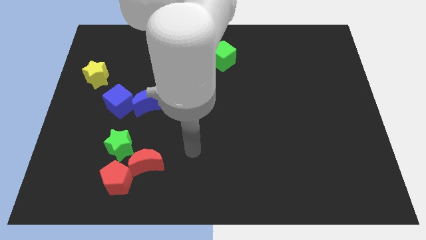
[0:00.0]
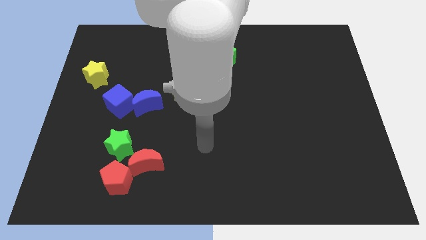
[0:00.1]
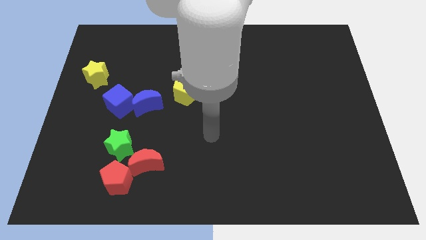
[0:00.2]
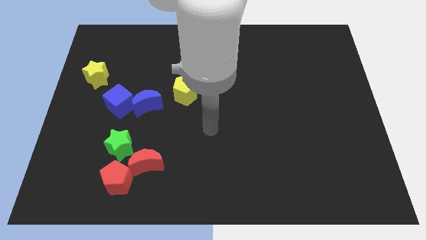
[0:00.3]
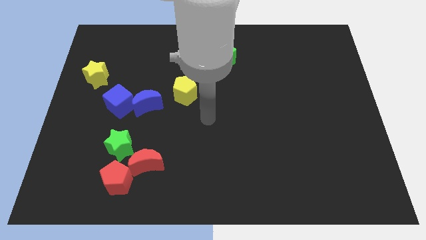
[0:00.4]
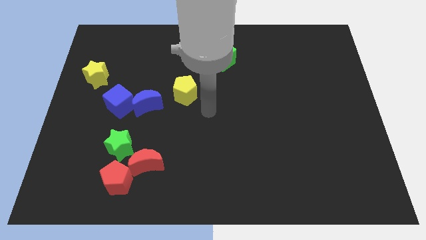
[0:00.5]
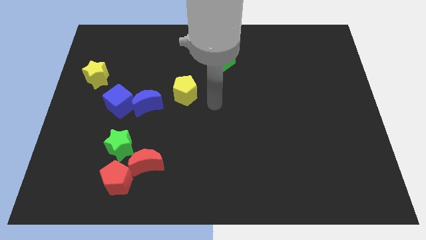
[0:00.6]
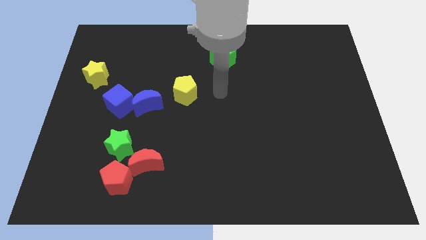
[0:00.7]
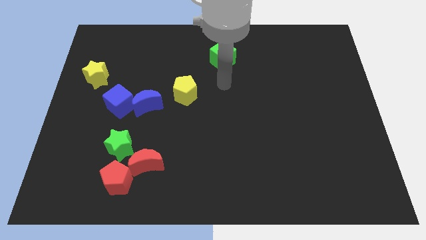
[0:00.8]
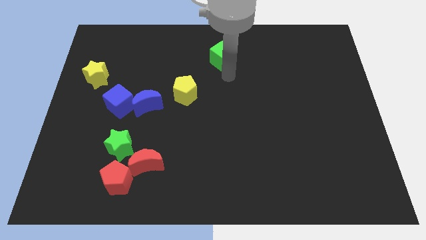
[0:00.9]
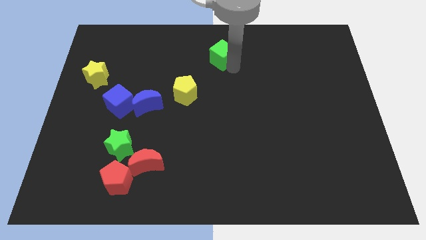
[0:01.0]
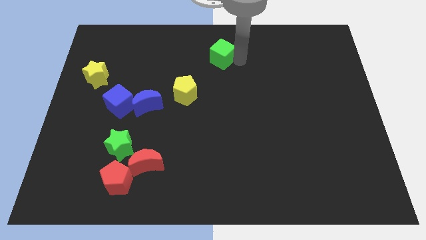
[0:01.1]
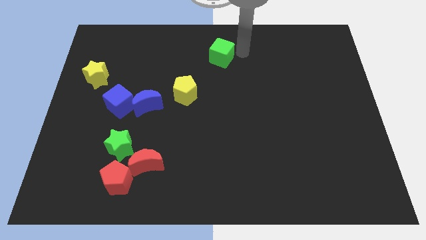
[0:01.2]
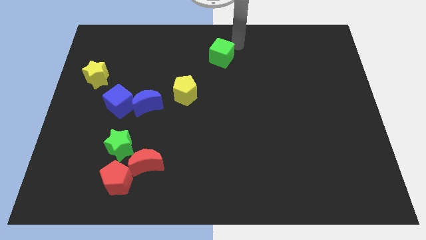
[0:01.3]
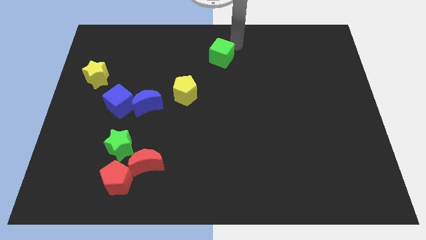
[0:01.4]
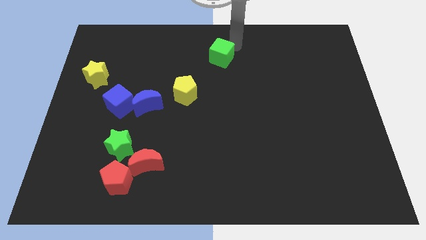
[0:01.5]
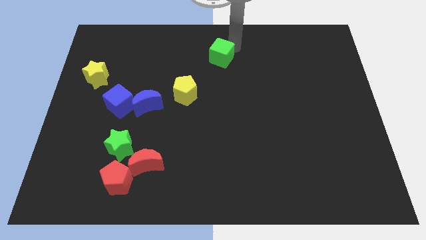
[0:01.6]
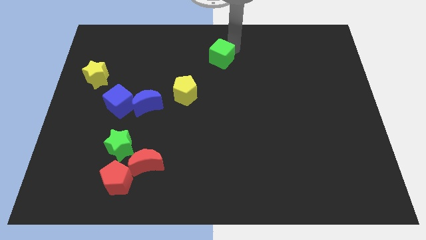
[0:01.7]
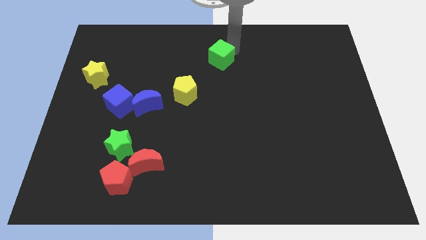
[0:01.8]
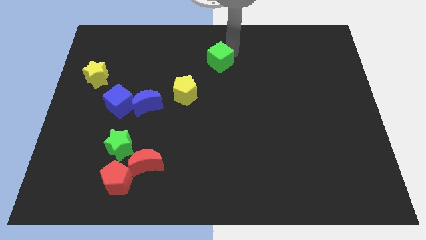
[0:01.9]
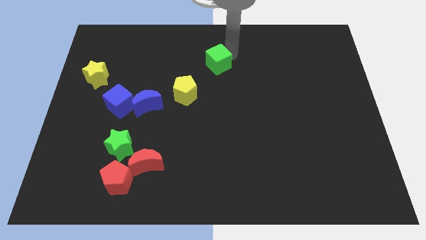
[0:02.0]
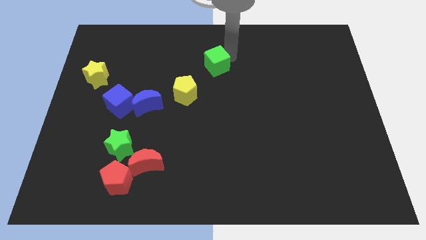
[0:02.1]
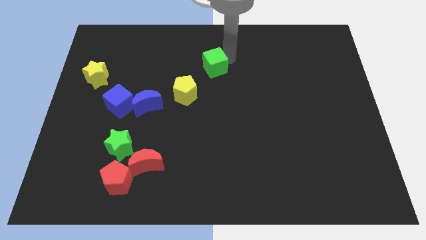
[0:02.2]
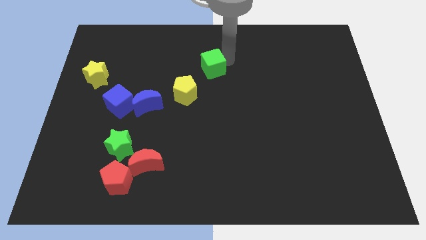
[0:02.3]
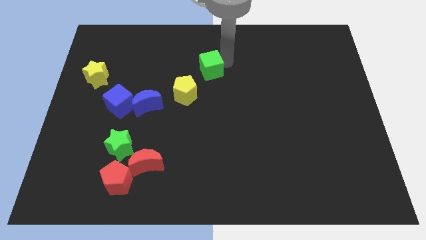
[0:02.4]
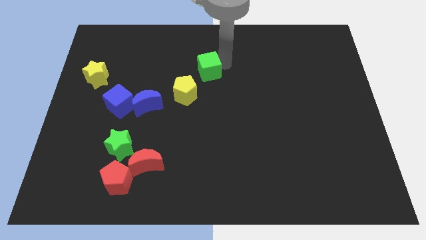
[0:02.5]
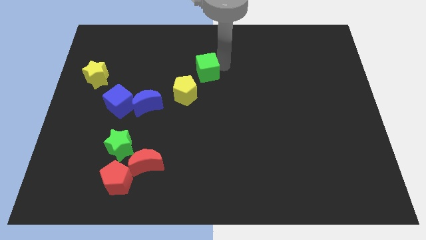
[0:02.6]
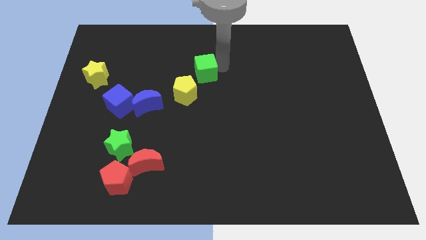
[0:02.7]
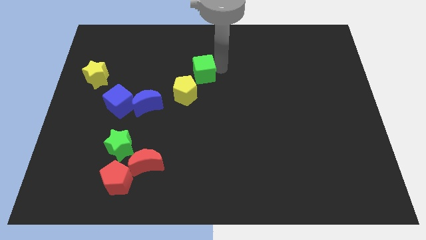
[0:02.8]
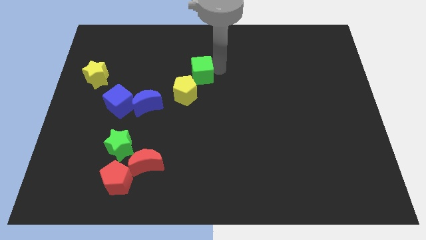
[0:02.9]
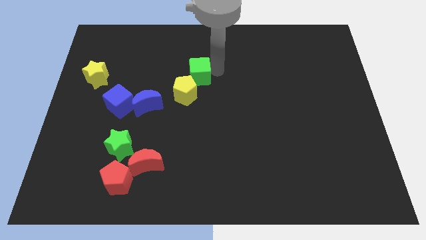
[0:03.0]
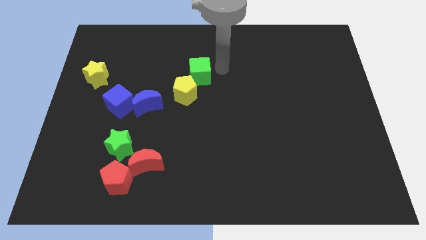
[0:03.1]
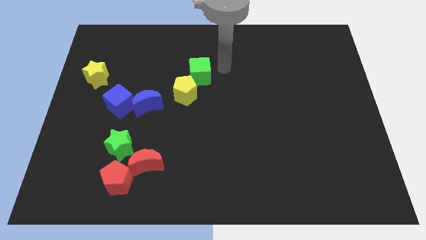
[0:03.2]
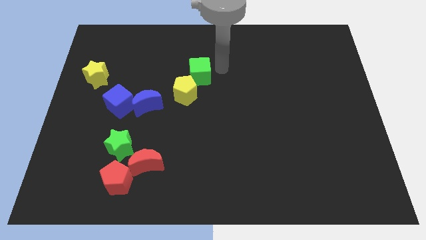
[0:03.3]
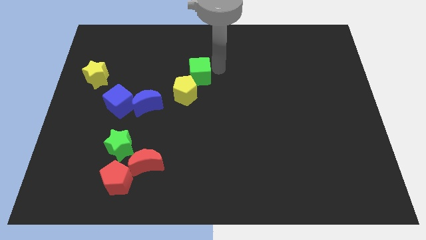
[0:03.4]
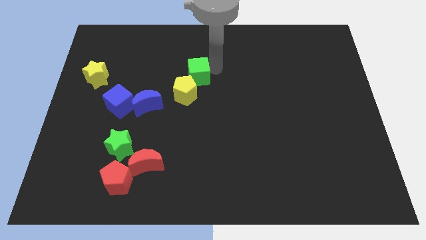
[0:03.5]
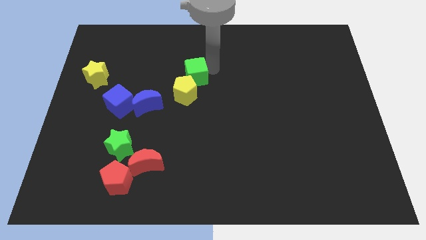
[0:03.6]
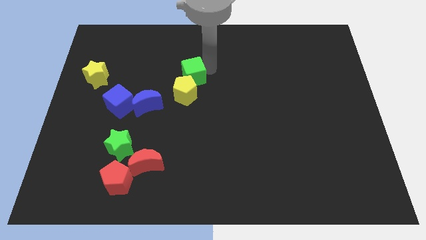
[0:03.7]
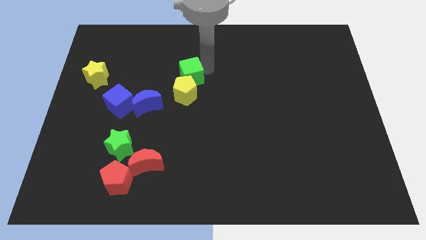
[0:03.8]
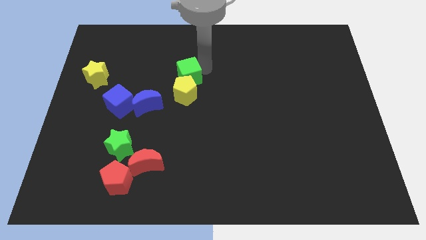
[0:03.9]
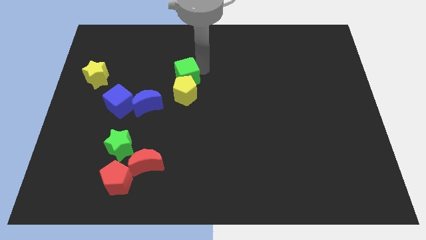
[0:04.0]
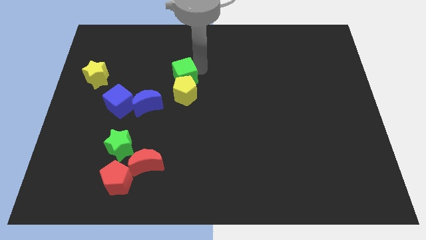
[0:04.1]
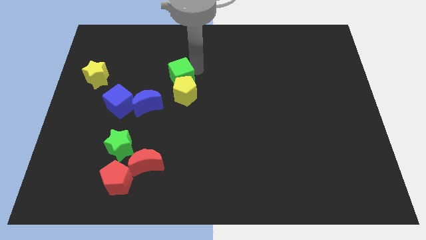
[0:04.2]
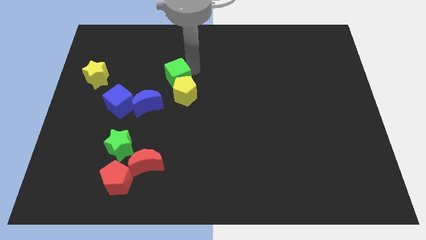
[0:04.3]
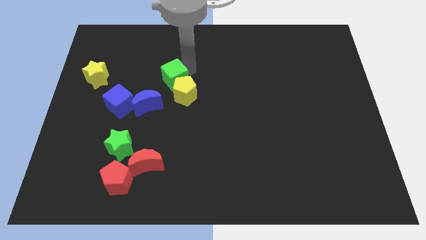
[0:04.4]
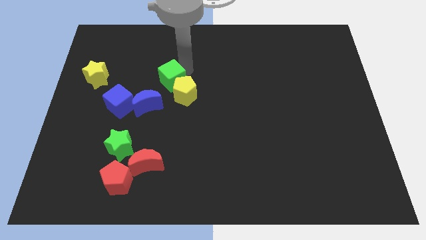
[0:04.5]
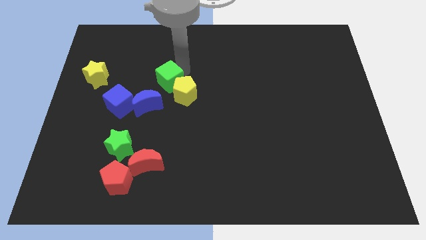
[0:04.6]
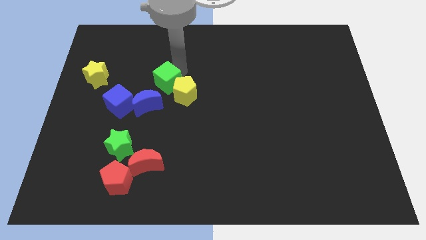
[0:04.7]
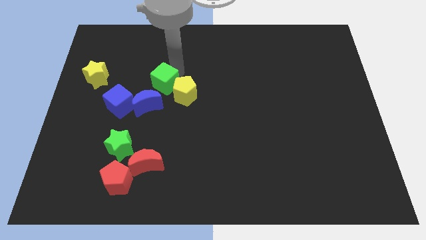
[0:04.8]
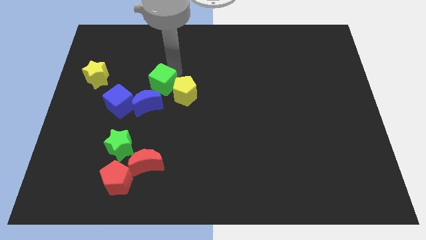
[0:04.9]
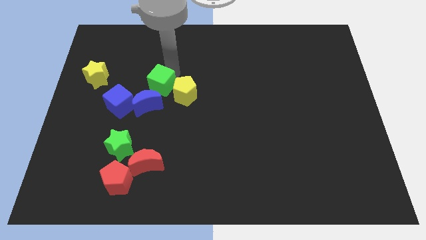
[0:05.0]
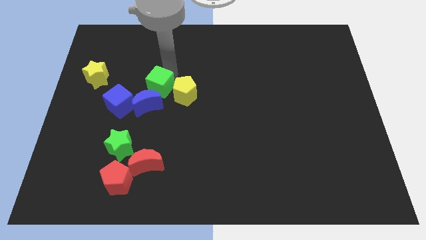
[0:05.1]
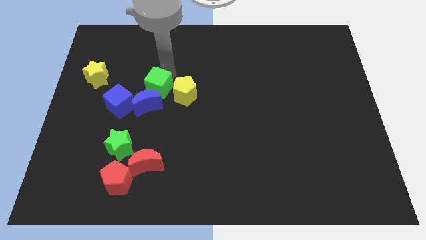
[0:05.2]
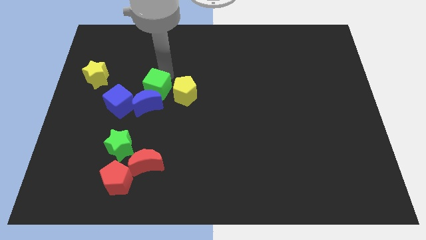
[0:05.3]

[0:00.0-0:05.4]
slide the green cube towards the blue moon

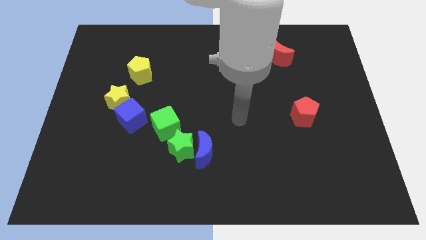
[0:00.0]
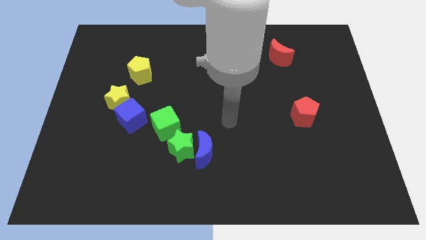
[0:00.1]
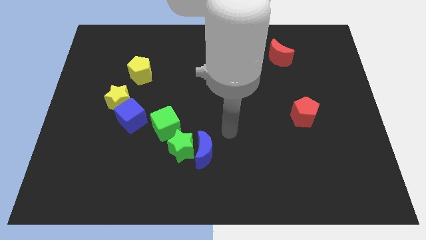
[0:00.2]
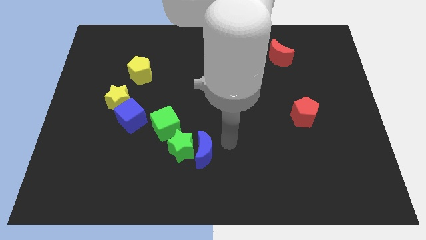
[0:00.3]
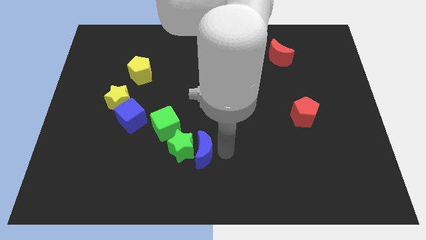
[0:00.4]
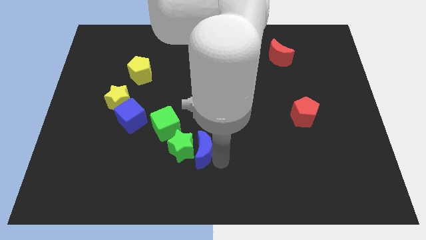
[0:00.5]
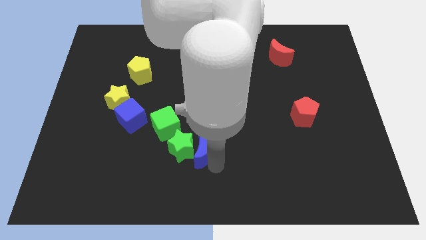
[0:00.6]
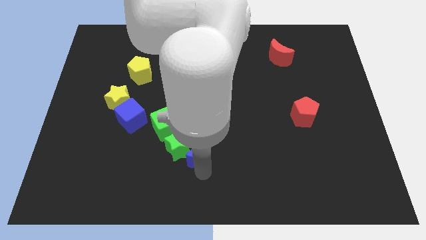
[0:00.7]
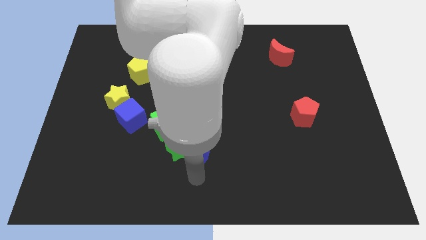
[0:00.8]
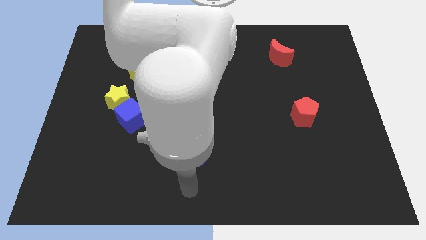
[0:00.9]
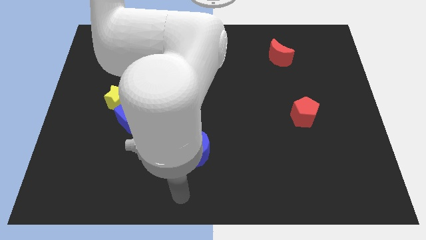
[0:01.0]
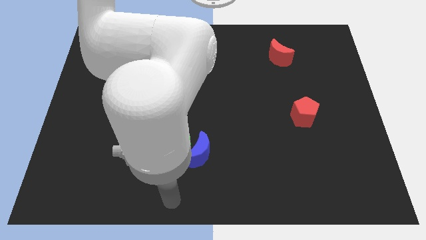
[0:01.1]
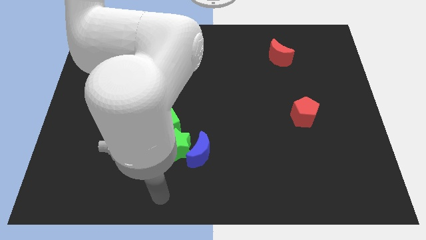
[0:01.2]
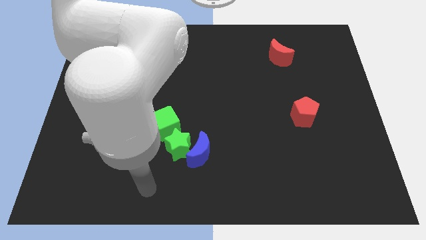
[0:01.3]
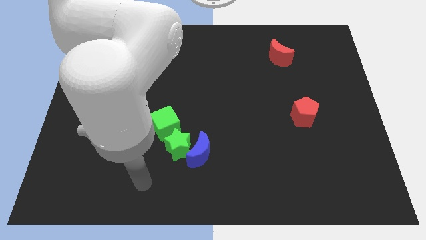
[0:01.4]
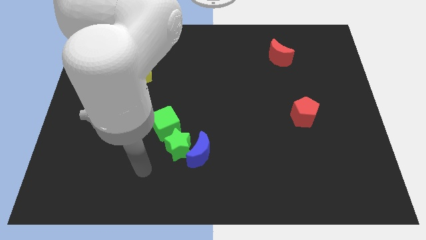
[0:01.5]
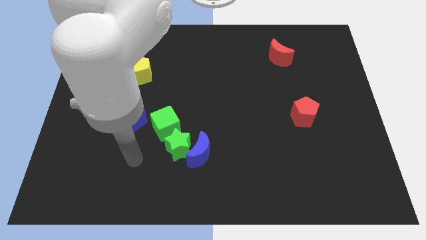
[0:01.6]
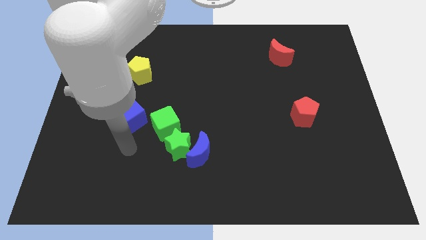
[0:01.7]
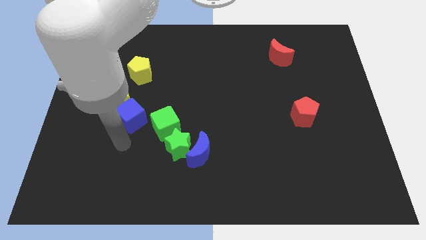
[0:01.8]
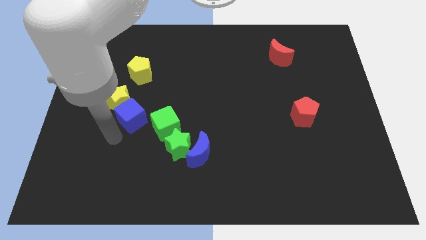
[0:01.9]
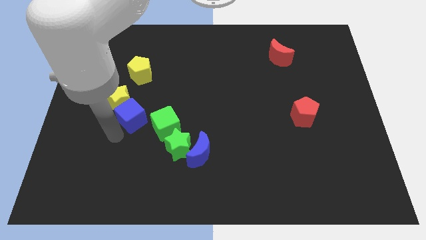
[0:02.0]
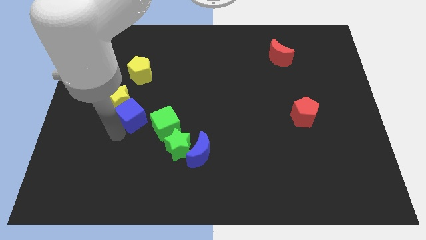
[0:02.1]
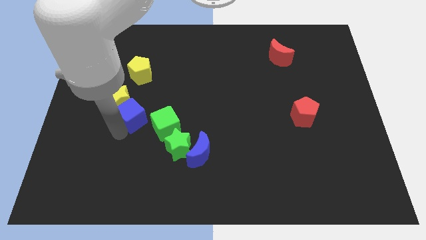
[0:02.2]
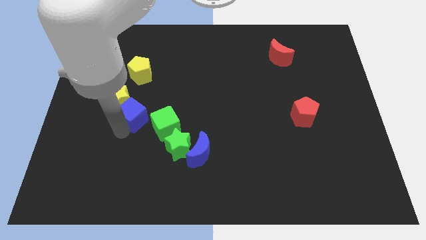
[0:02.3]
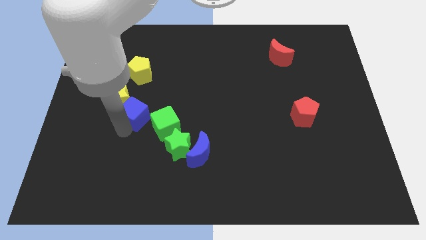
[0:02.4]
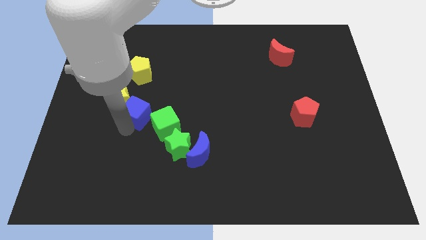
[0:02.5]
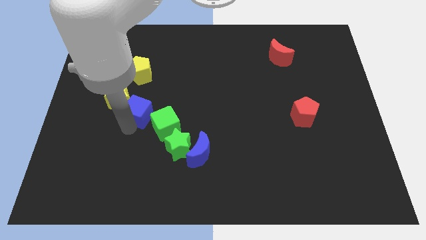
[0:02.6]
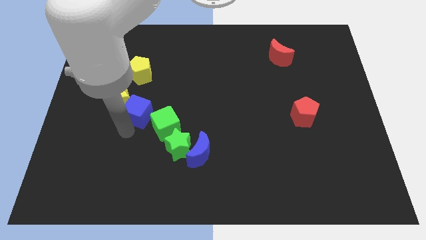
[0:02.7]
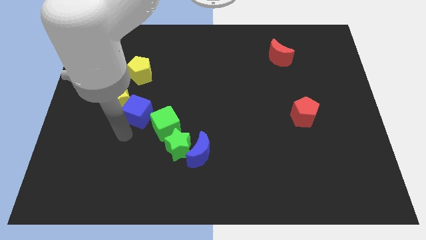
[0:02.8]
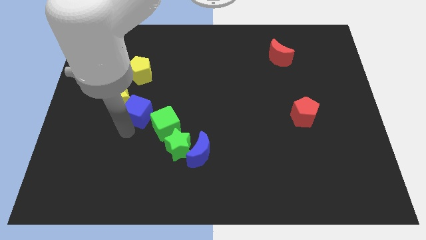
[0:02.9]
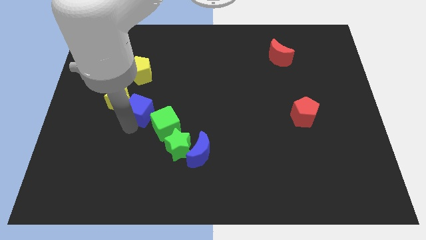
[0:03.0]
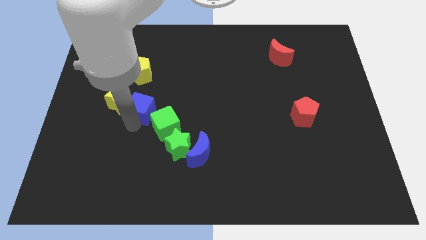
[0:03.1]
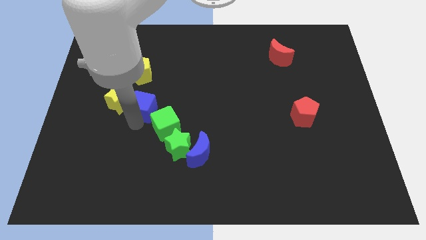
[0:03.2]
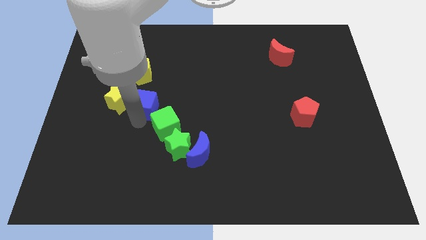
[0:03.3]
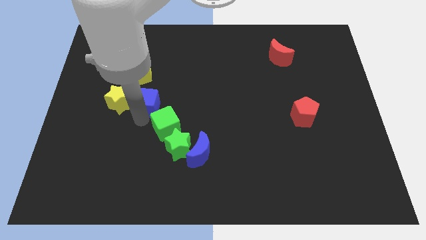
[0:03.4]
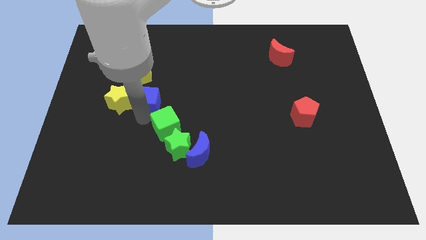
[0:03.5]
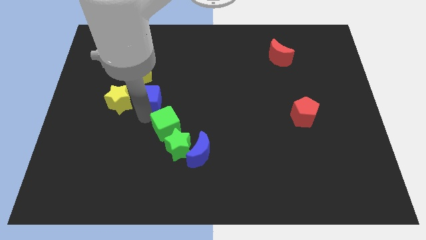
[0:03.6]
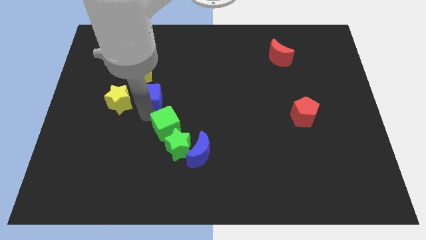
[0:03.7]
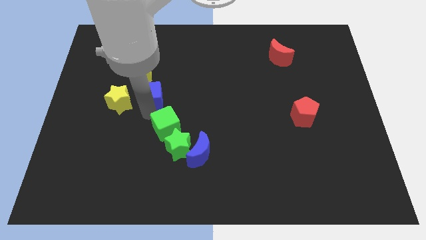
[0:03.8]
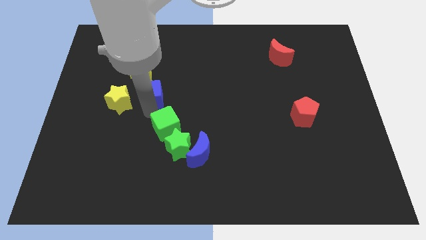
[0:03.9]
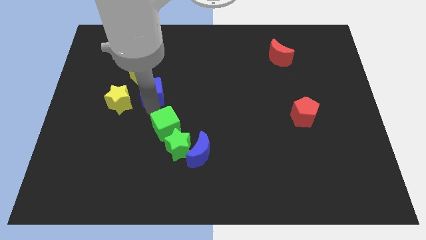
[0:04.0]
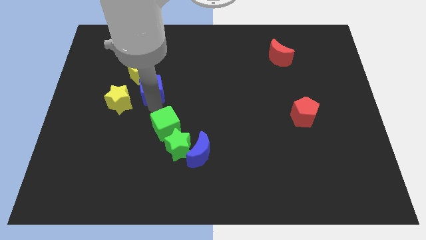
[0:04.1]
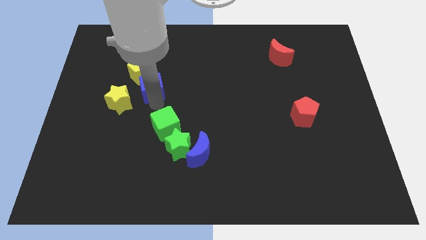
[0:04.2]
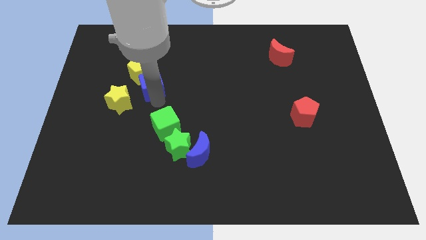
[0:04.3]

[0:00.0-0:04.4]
slide the blue cube close to the yellow pentagon
